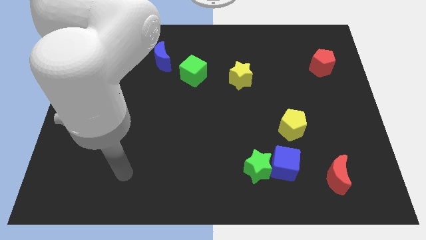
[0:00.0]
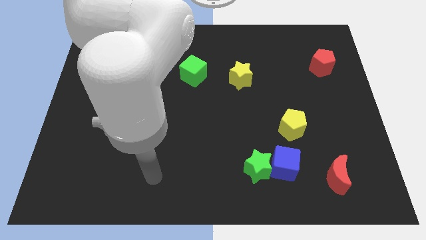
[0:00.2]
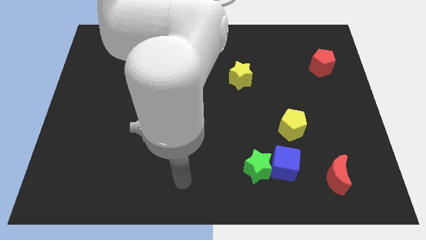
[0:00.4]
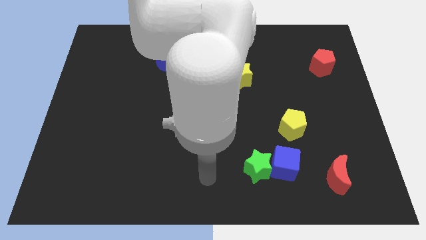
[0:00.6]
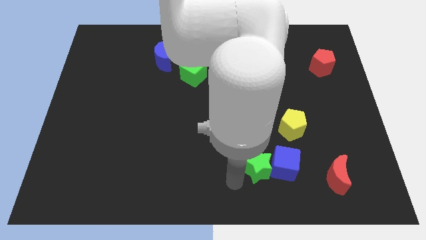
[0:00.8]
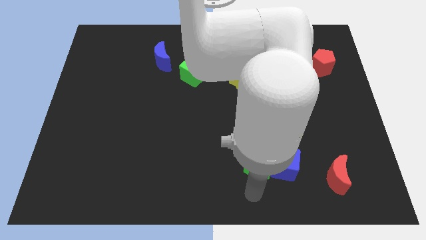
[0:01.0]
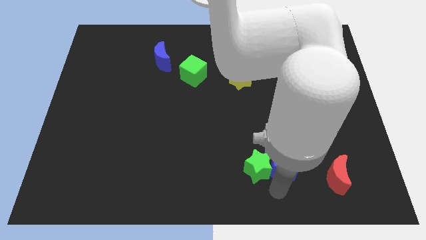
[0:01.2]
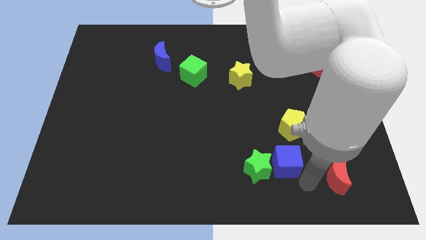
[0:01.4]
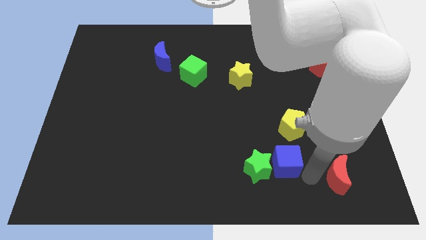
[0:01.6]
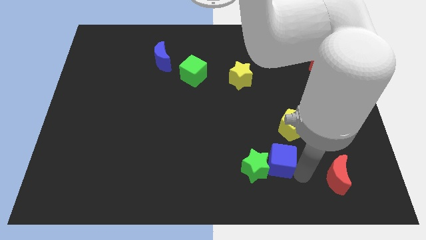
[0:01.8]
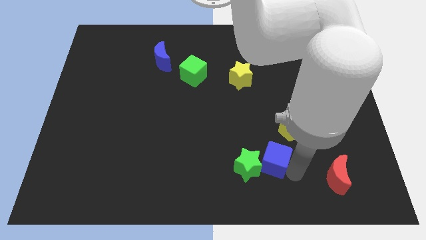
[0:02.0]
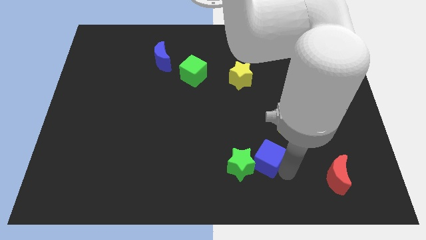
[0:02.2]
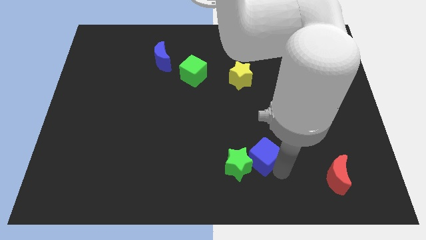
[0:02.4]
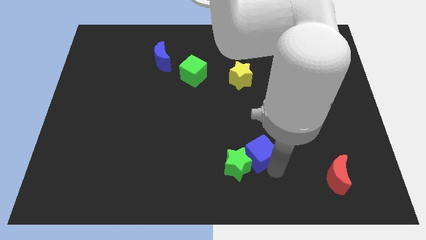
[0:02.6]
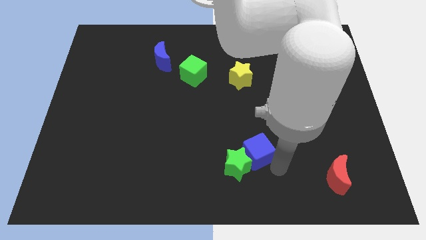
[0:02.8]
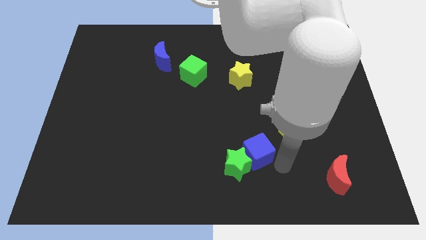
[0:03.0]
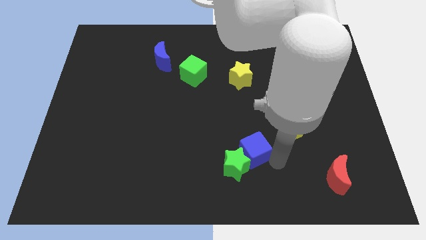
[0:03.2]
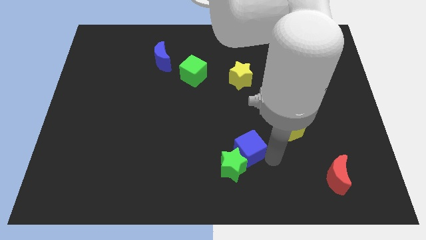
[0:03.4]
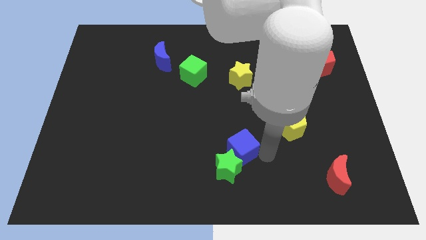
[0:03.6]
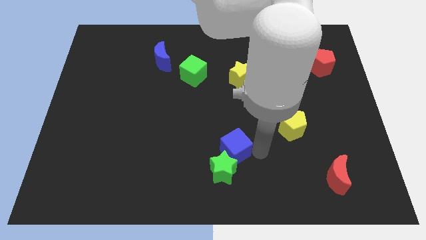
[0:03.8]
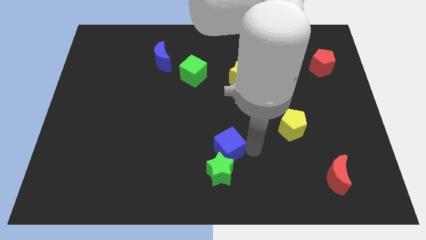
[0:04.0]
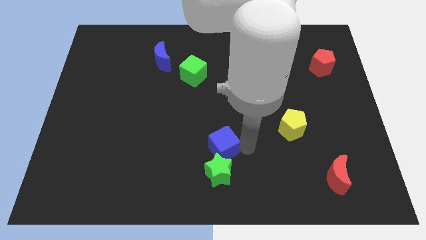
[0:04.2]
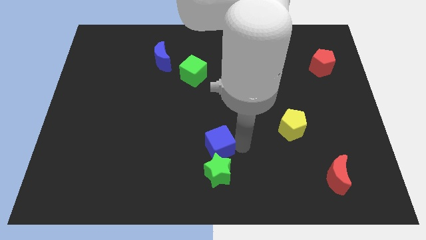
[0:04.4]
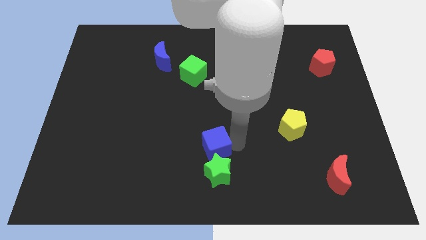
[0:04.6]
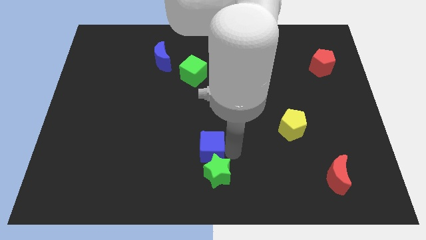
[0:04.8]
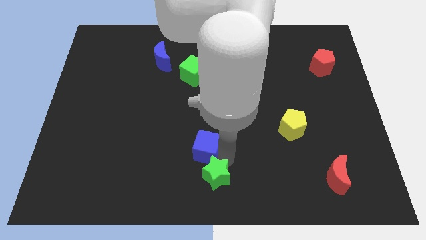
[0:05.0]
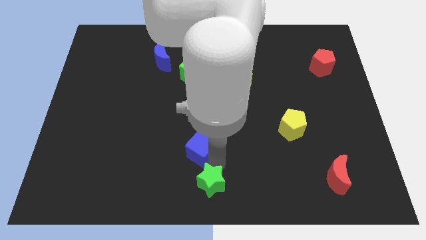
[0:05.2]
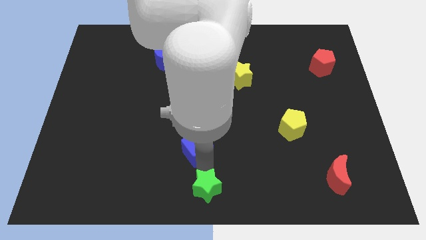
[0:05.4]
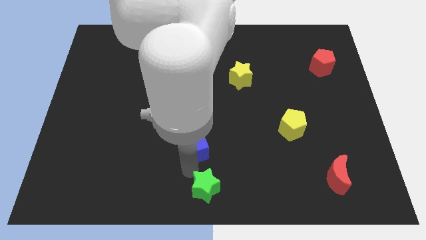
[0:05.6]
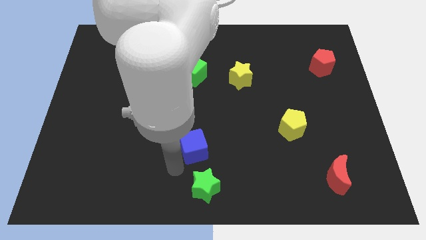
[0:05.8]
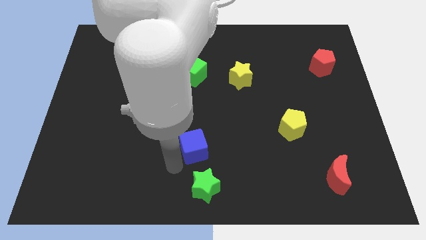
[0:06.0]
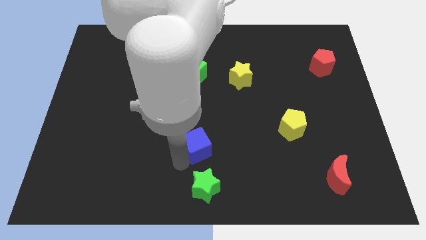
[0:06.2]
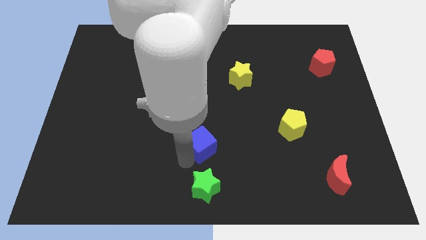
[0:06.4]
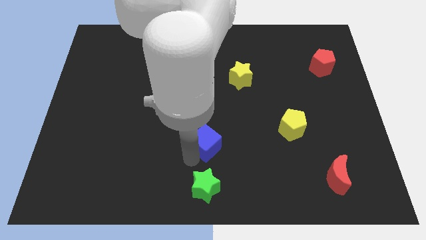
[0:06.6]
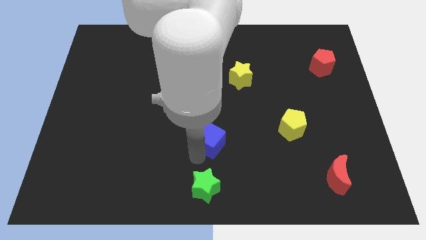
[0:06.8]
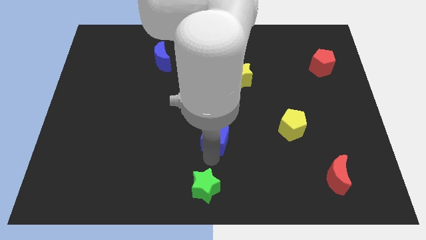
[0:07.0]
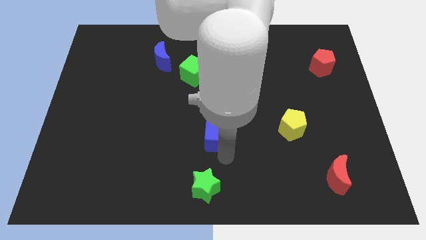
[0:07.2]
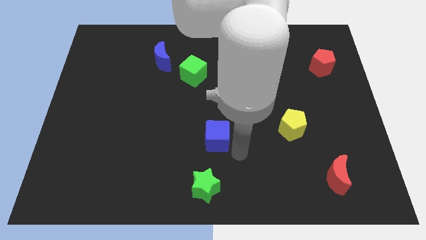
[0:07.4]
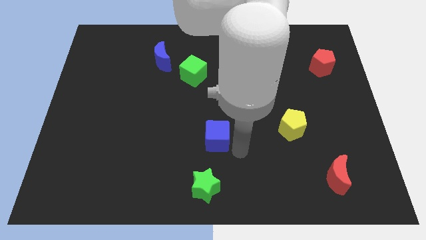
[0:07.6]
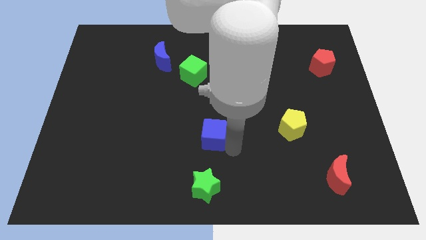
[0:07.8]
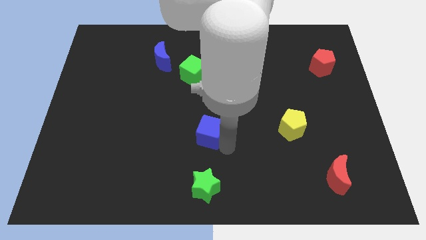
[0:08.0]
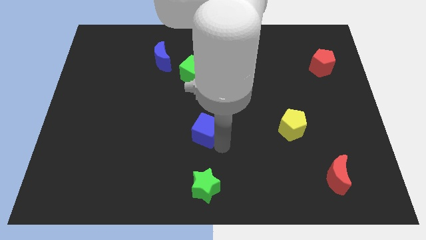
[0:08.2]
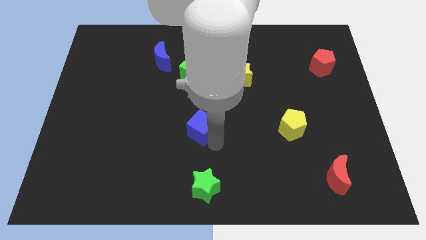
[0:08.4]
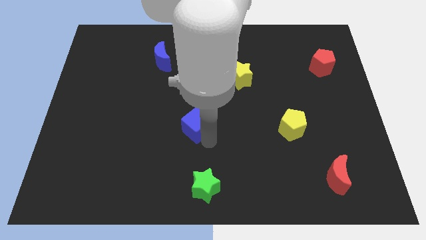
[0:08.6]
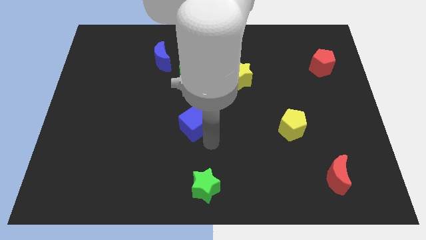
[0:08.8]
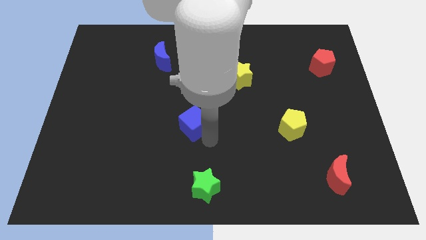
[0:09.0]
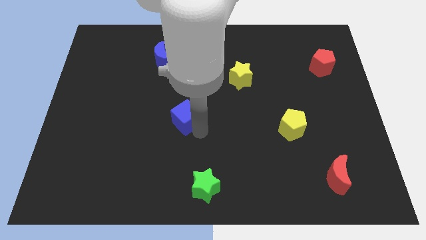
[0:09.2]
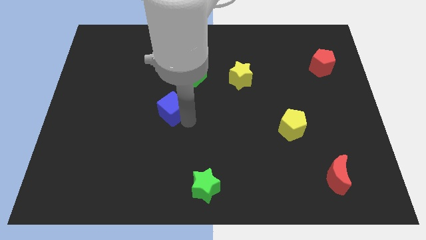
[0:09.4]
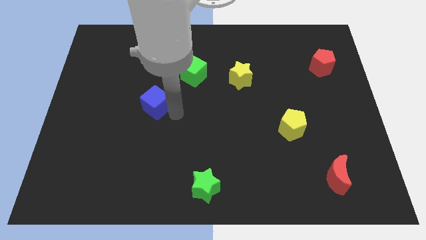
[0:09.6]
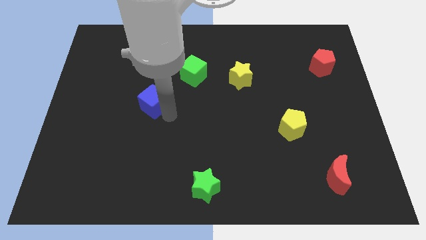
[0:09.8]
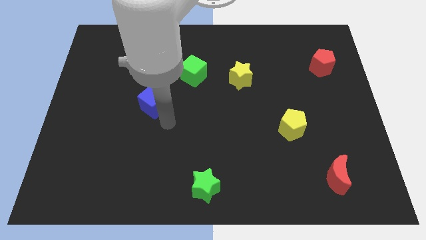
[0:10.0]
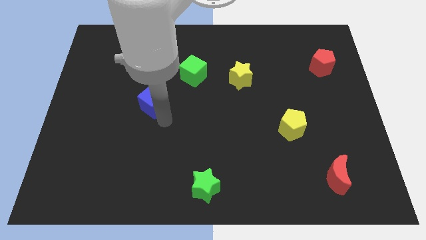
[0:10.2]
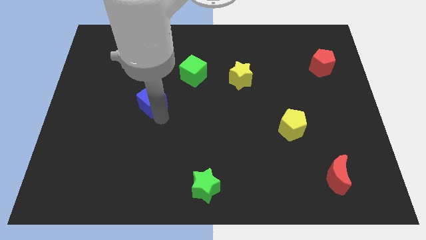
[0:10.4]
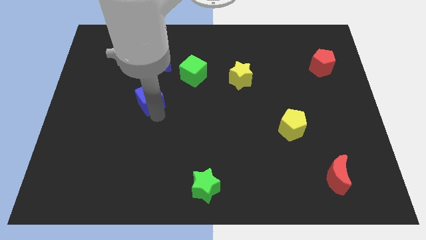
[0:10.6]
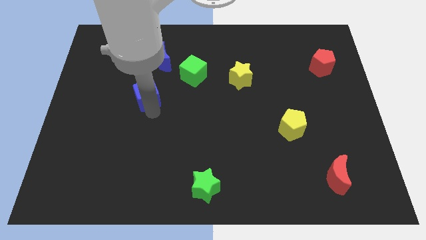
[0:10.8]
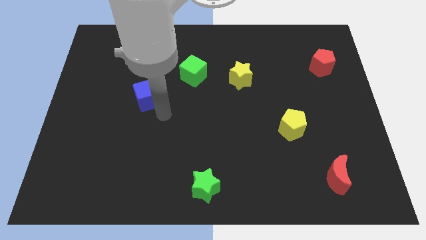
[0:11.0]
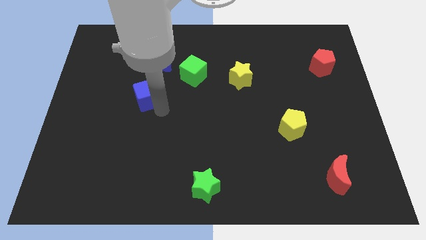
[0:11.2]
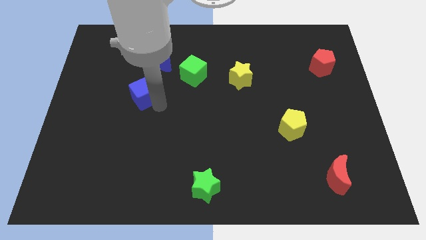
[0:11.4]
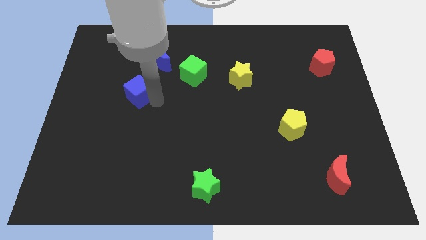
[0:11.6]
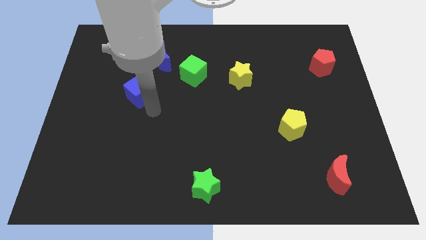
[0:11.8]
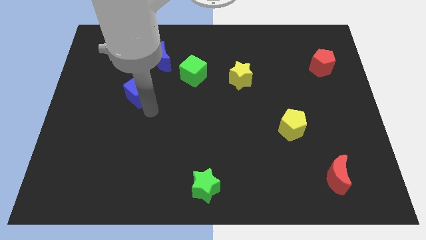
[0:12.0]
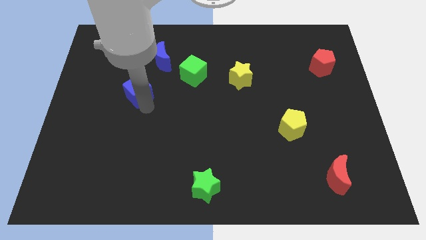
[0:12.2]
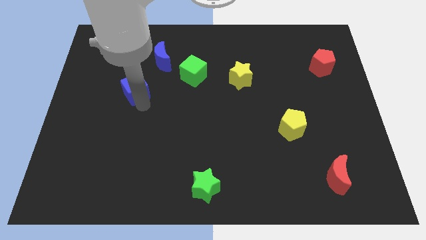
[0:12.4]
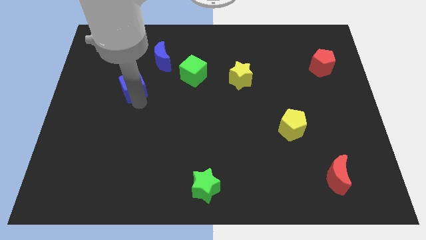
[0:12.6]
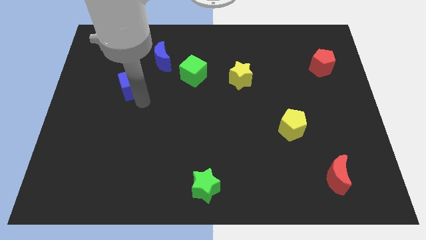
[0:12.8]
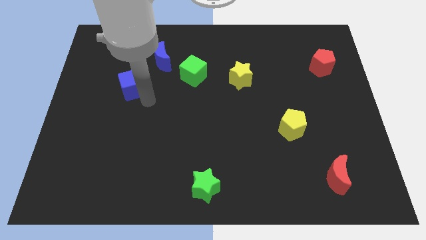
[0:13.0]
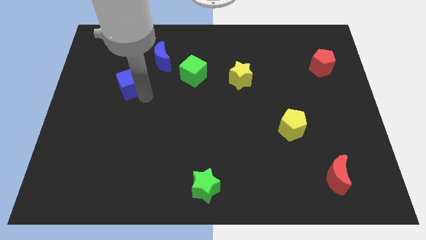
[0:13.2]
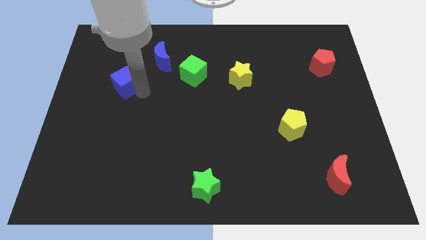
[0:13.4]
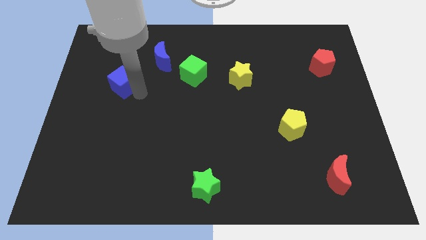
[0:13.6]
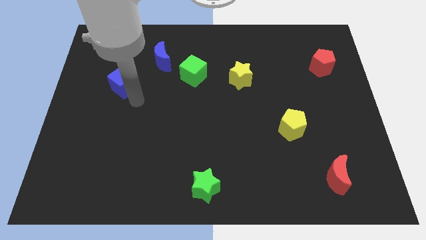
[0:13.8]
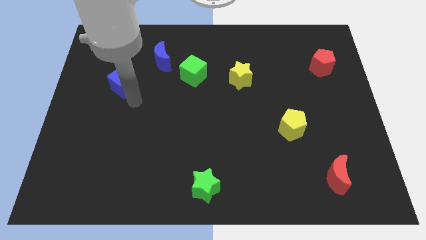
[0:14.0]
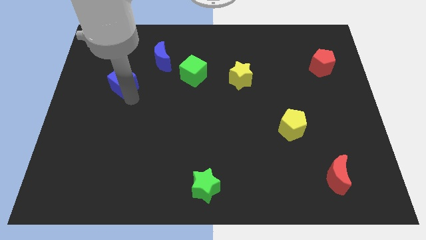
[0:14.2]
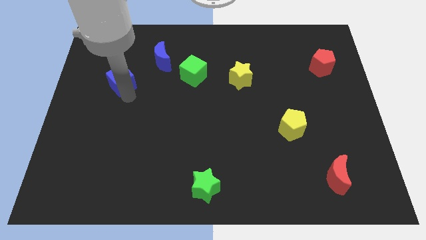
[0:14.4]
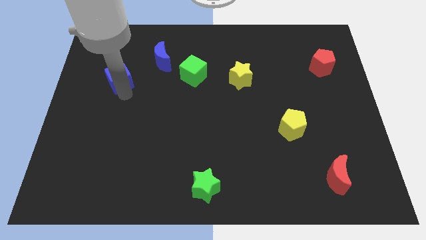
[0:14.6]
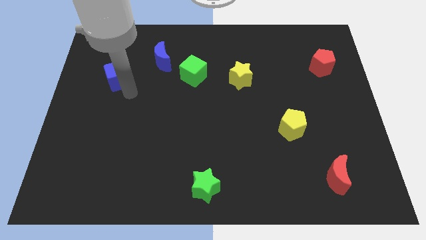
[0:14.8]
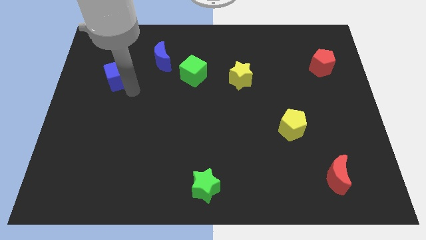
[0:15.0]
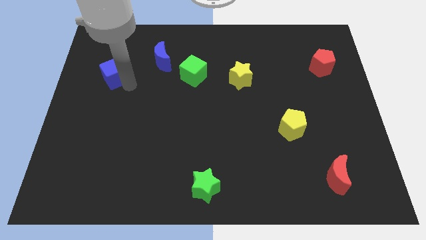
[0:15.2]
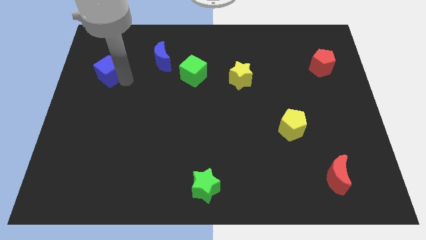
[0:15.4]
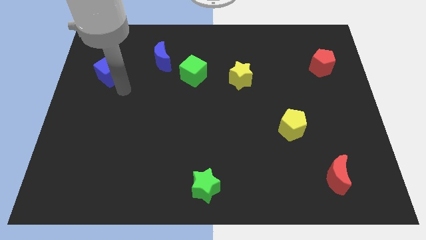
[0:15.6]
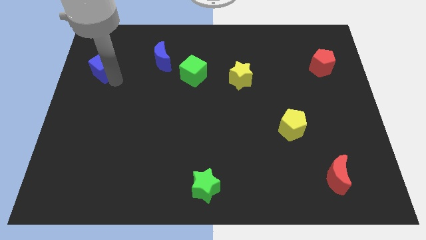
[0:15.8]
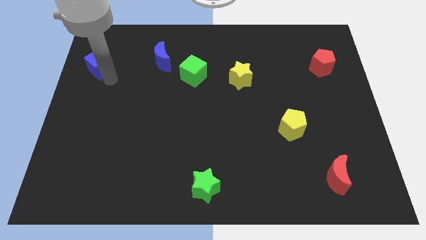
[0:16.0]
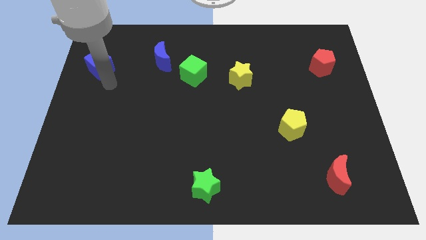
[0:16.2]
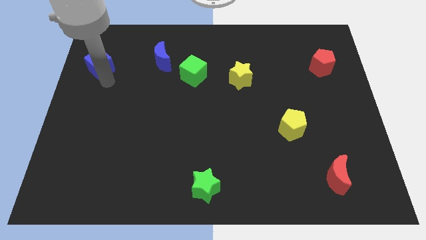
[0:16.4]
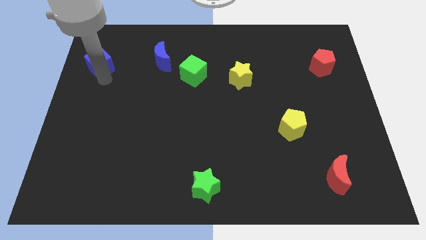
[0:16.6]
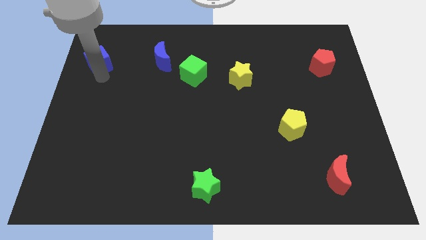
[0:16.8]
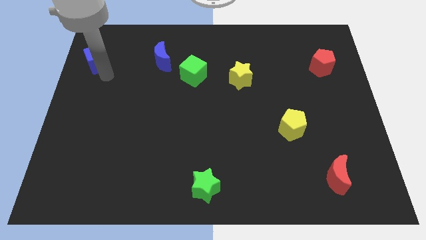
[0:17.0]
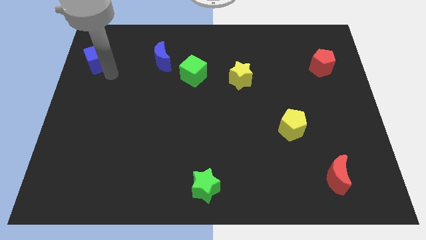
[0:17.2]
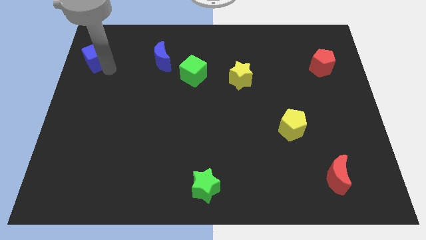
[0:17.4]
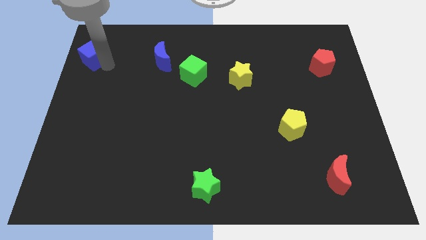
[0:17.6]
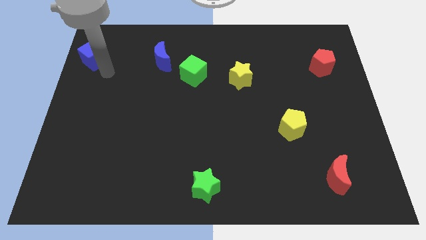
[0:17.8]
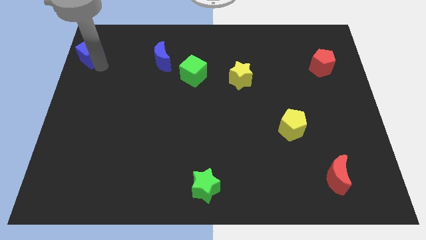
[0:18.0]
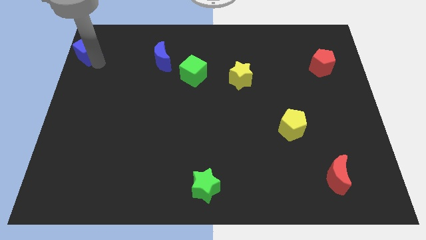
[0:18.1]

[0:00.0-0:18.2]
push the blue cube to the top left
